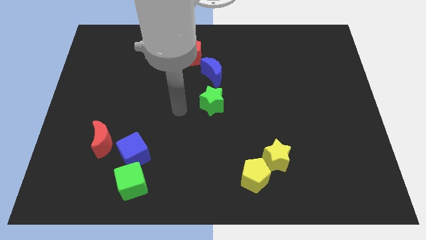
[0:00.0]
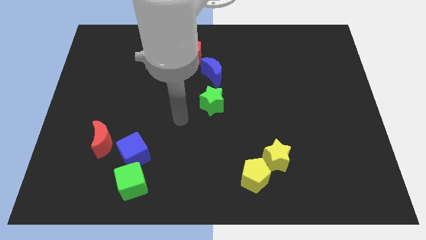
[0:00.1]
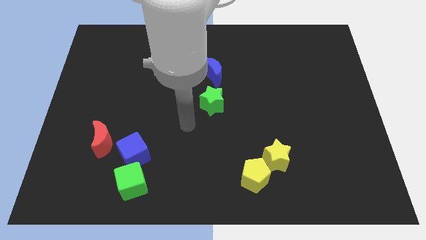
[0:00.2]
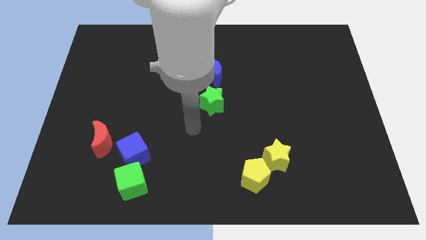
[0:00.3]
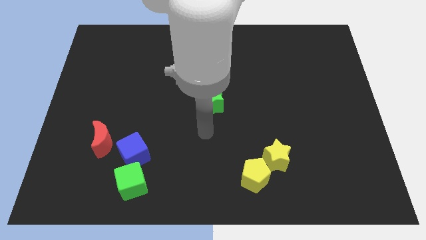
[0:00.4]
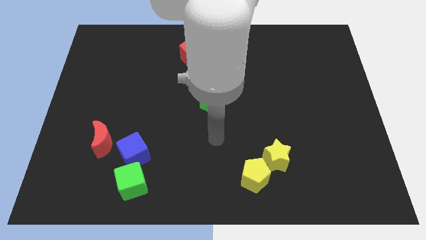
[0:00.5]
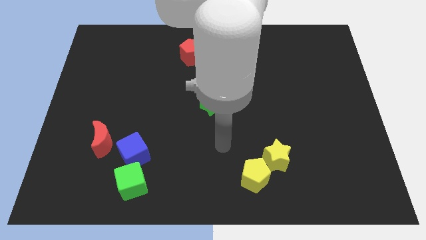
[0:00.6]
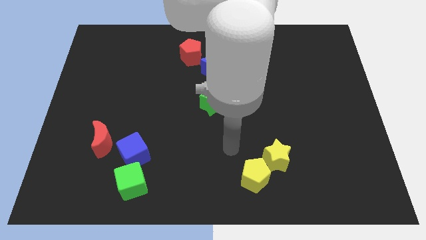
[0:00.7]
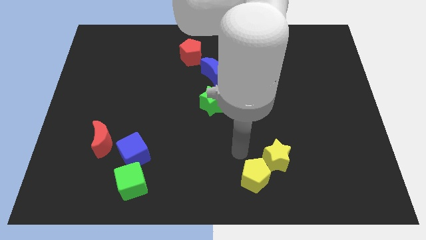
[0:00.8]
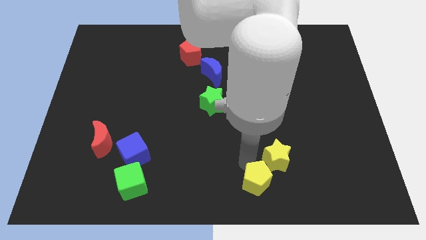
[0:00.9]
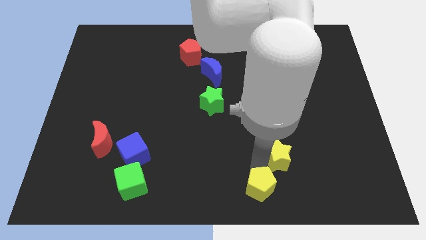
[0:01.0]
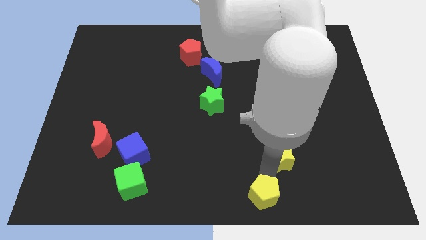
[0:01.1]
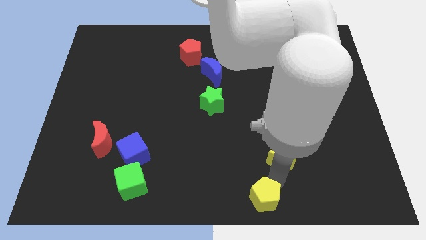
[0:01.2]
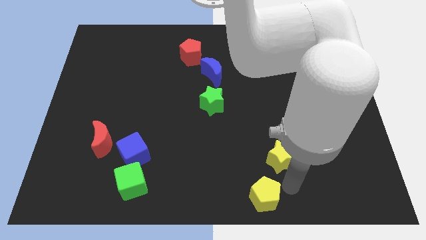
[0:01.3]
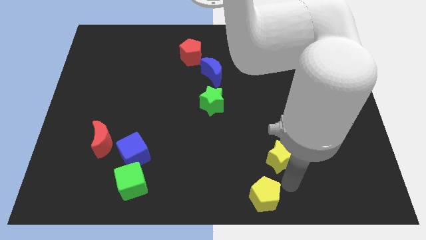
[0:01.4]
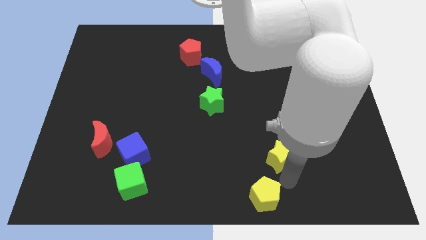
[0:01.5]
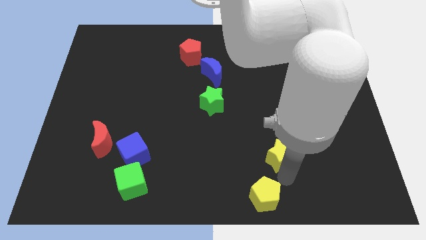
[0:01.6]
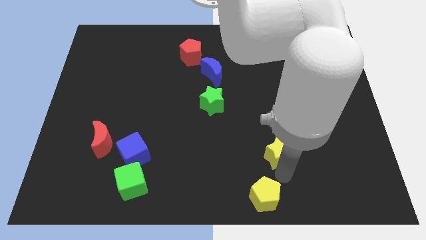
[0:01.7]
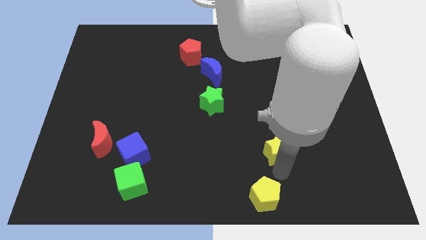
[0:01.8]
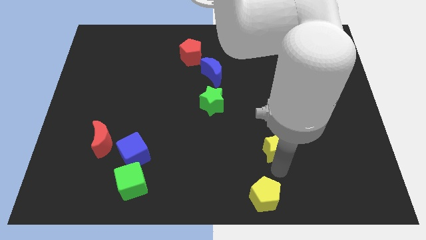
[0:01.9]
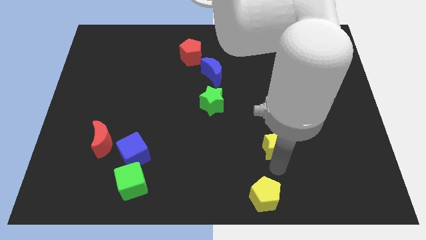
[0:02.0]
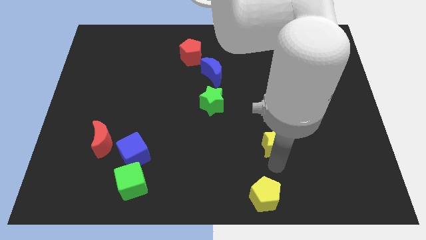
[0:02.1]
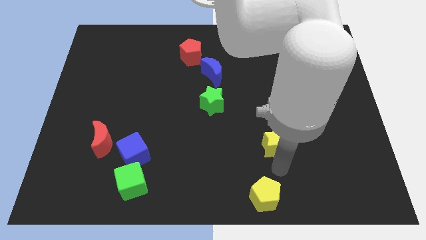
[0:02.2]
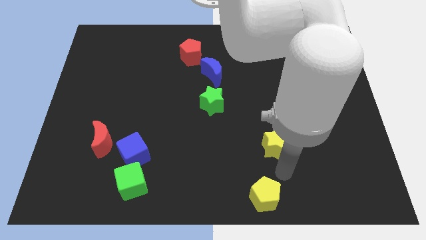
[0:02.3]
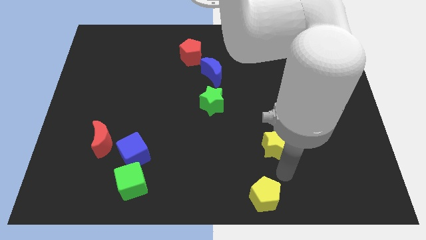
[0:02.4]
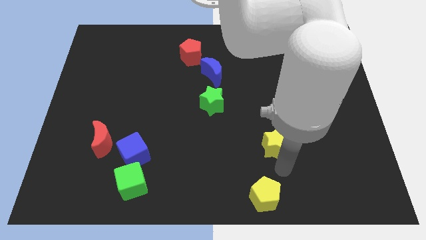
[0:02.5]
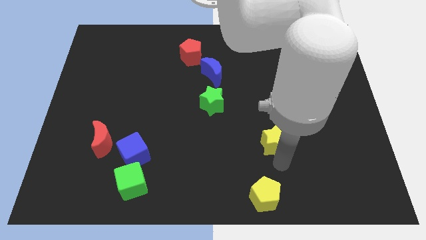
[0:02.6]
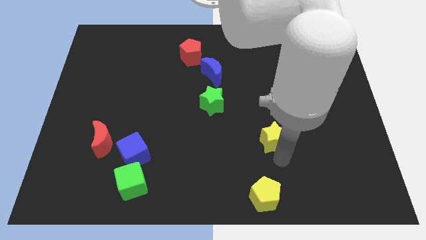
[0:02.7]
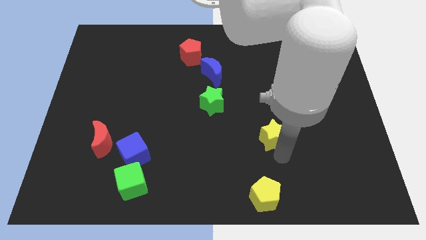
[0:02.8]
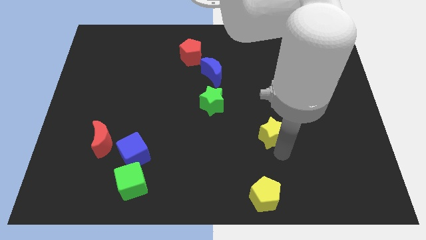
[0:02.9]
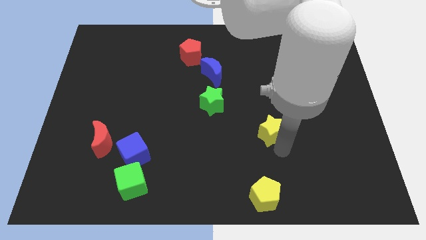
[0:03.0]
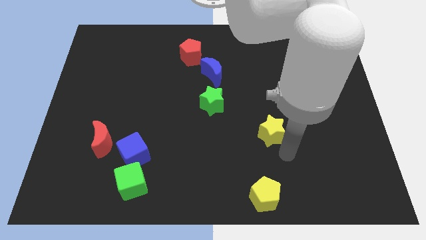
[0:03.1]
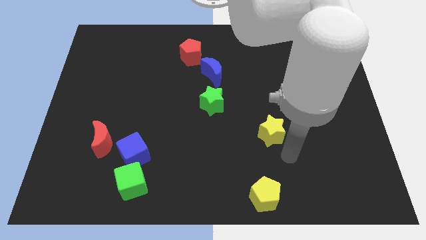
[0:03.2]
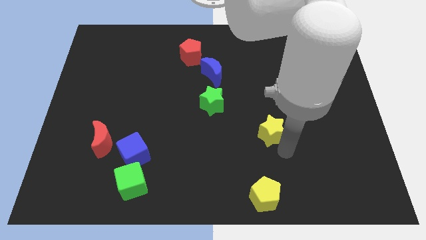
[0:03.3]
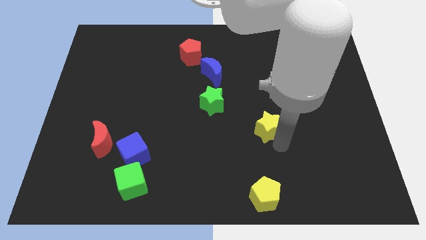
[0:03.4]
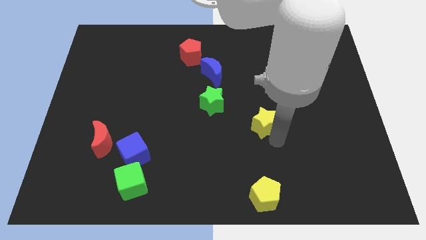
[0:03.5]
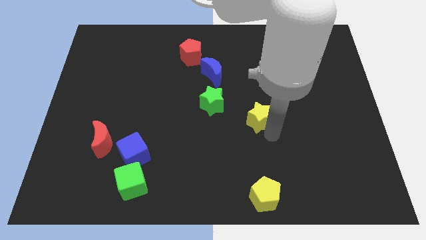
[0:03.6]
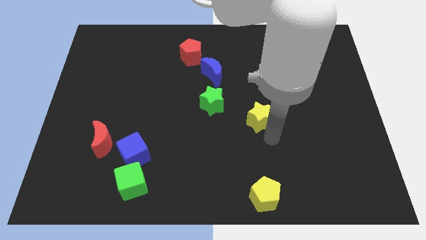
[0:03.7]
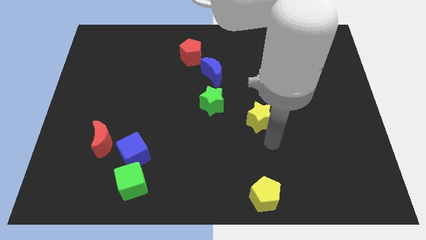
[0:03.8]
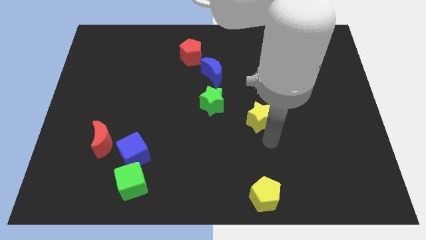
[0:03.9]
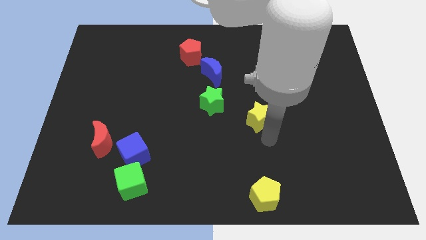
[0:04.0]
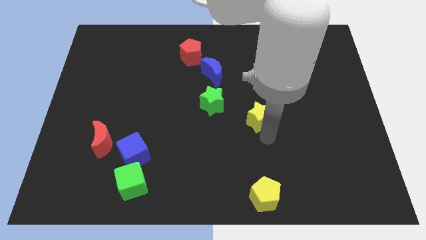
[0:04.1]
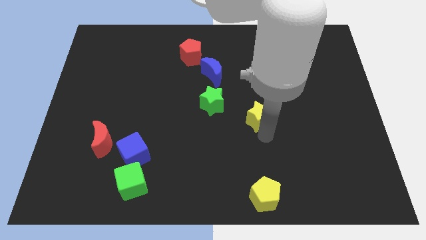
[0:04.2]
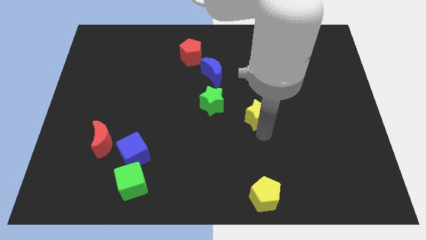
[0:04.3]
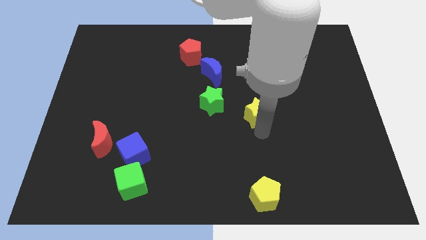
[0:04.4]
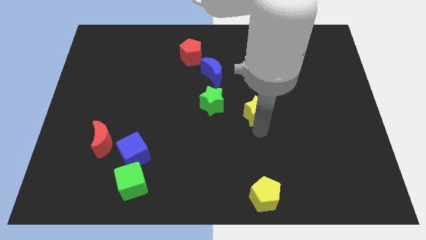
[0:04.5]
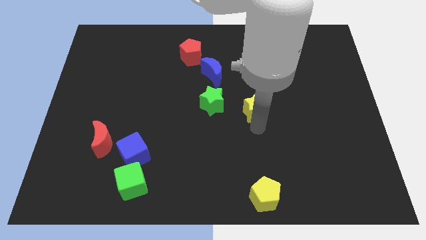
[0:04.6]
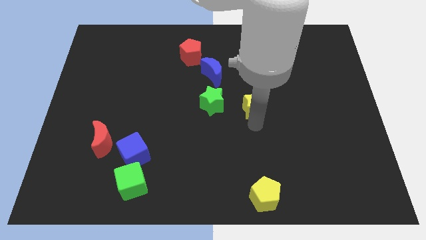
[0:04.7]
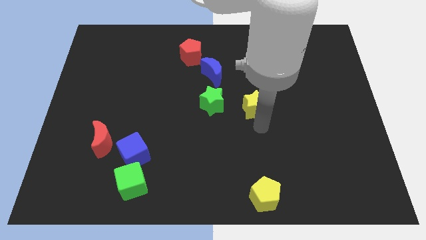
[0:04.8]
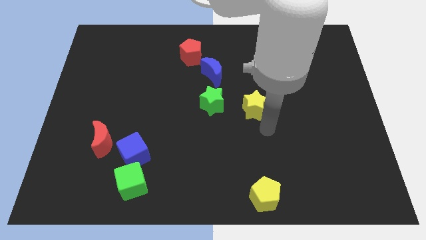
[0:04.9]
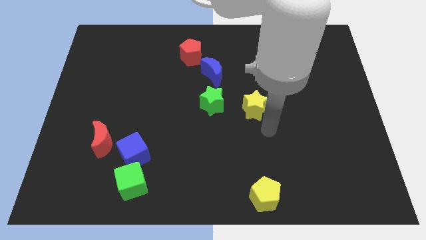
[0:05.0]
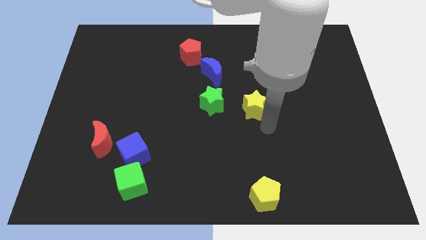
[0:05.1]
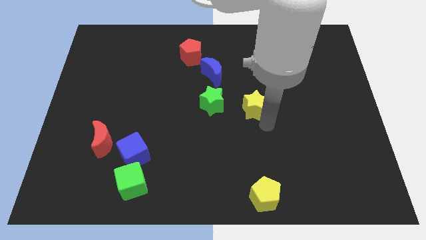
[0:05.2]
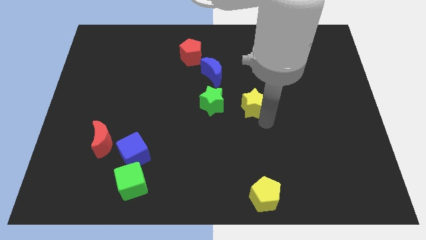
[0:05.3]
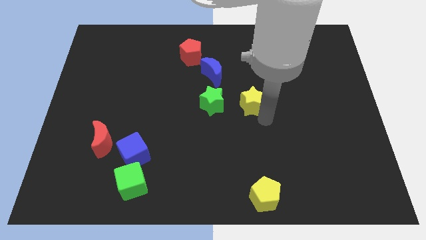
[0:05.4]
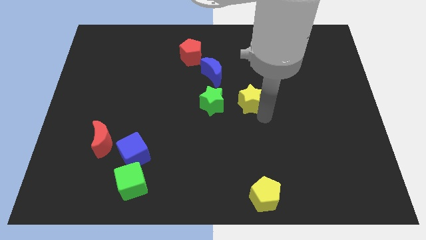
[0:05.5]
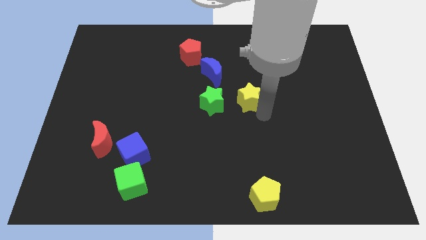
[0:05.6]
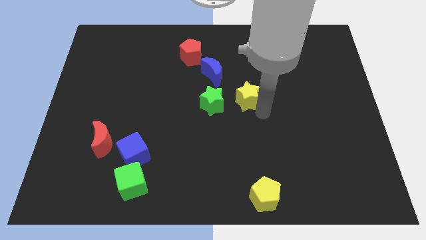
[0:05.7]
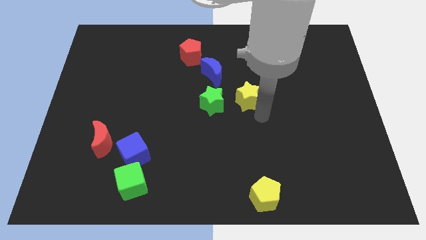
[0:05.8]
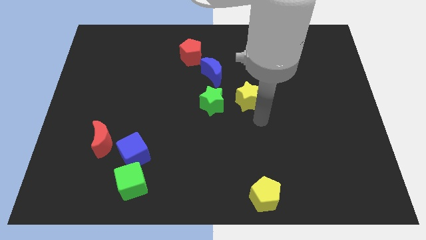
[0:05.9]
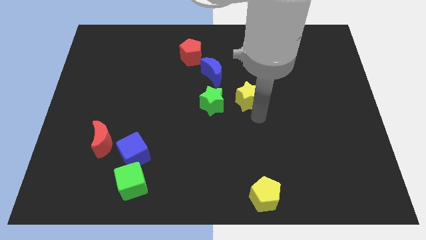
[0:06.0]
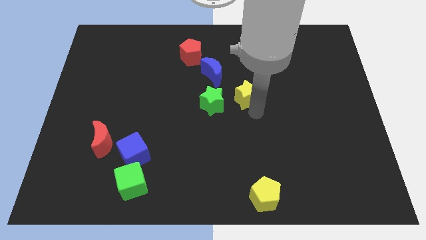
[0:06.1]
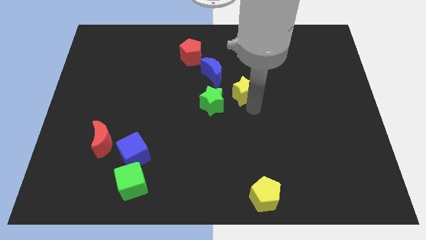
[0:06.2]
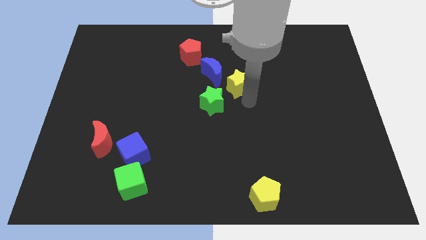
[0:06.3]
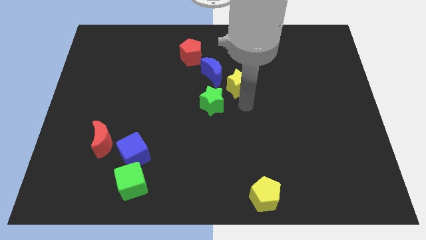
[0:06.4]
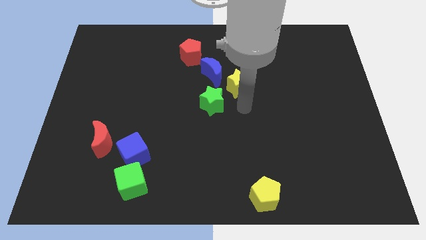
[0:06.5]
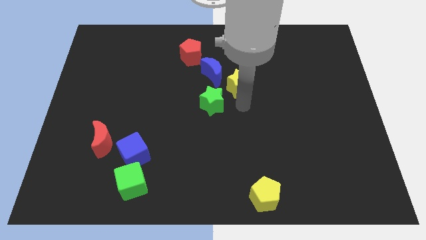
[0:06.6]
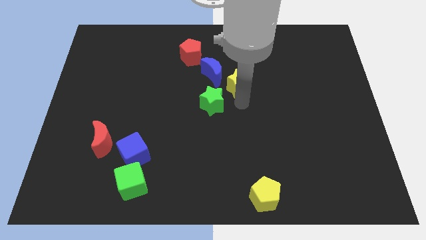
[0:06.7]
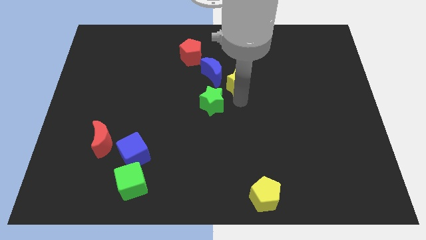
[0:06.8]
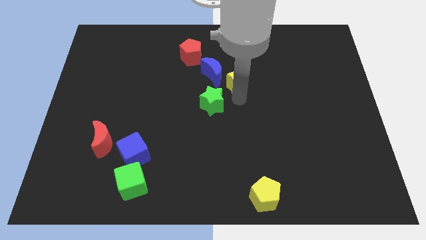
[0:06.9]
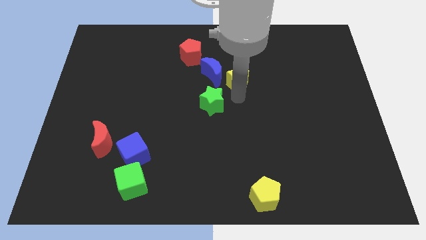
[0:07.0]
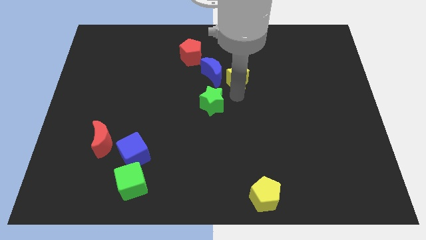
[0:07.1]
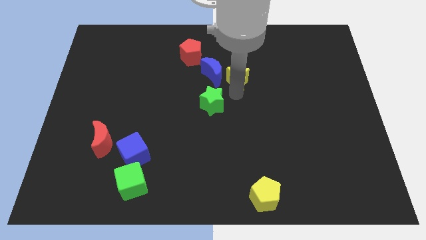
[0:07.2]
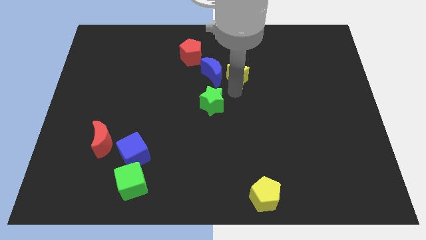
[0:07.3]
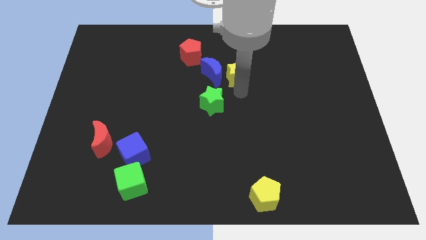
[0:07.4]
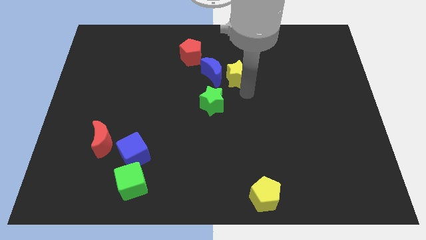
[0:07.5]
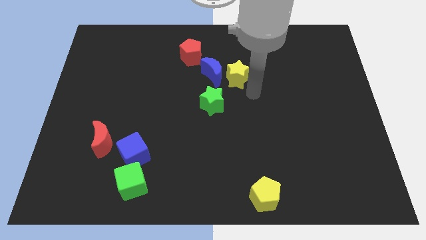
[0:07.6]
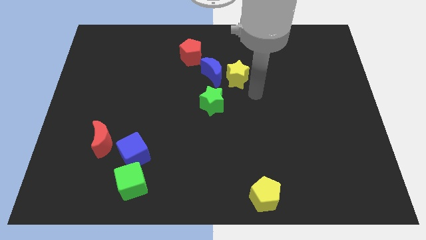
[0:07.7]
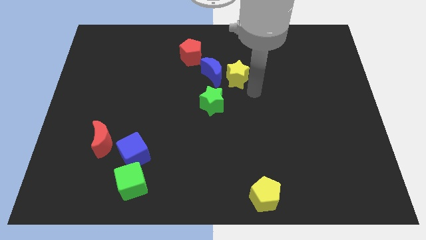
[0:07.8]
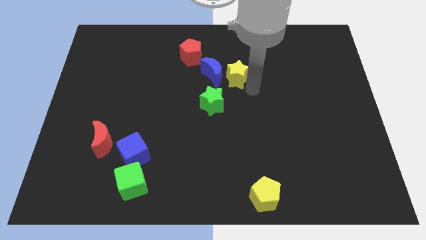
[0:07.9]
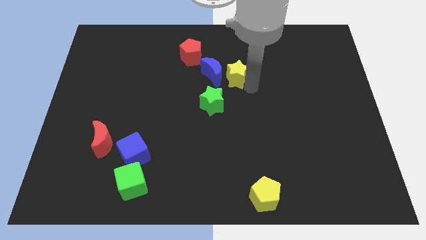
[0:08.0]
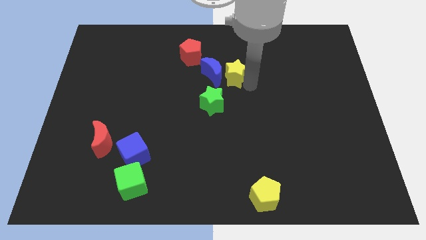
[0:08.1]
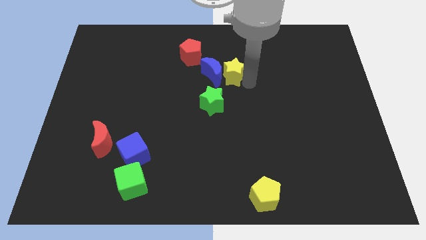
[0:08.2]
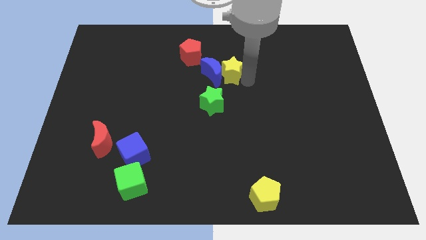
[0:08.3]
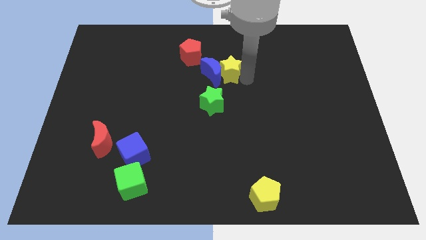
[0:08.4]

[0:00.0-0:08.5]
move the yellow star to the top of the green star
